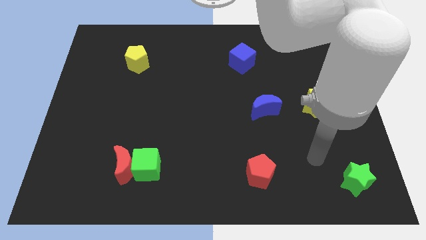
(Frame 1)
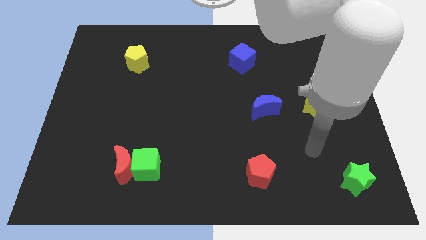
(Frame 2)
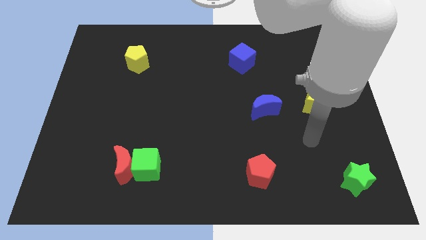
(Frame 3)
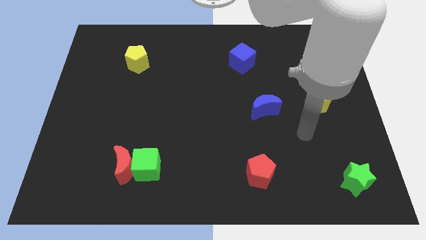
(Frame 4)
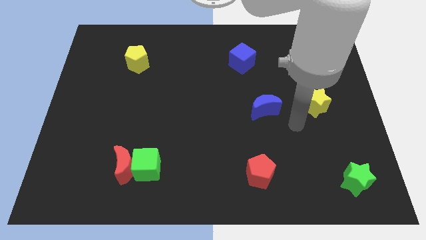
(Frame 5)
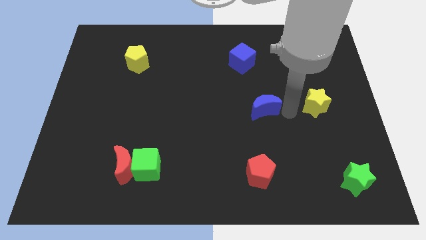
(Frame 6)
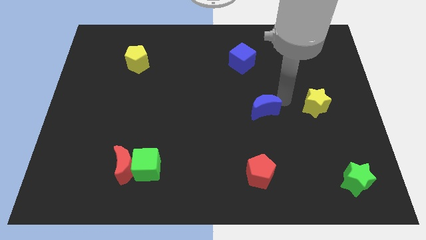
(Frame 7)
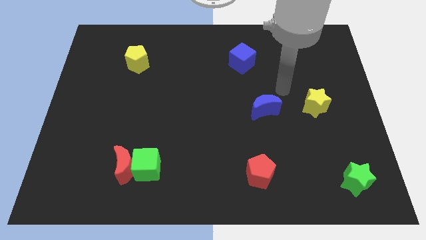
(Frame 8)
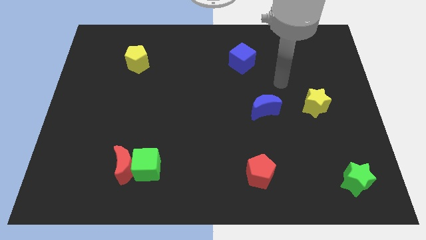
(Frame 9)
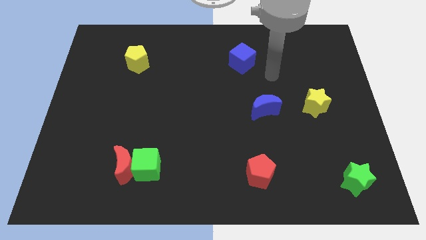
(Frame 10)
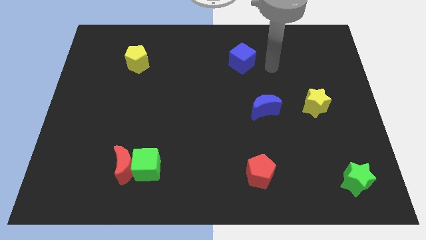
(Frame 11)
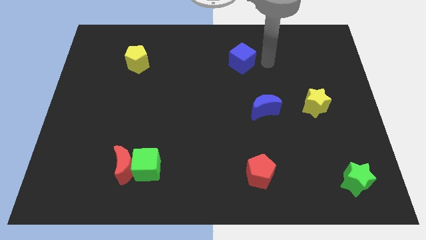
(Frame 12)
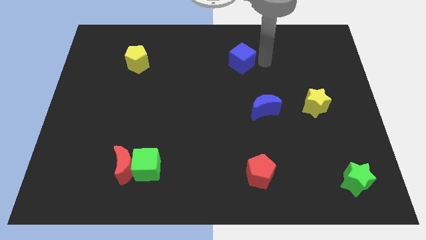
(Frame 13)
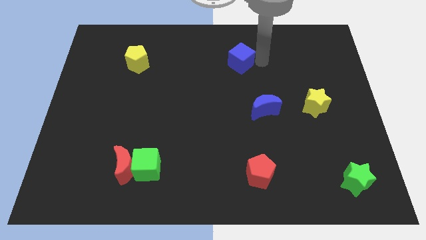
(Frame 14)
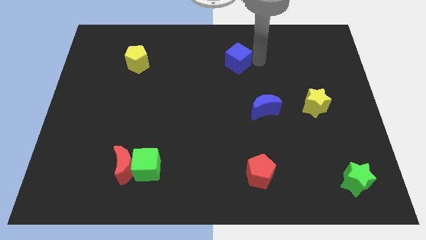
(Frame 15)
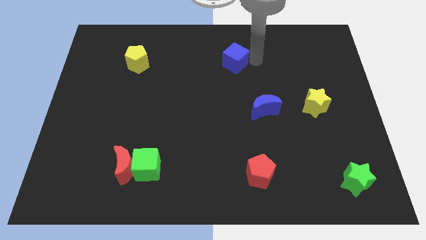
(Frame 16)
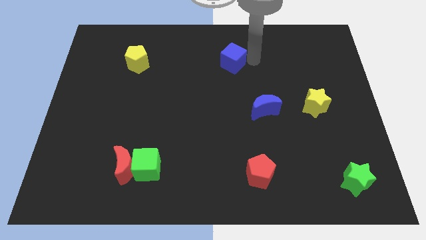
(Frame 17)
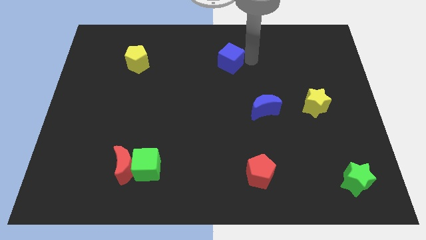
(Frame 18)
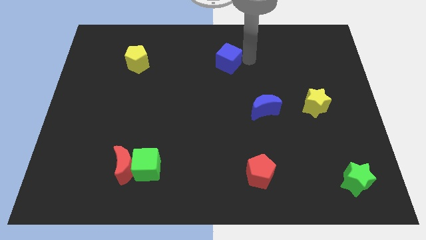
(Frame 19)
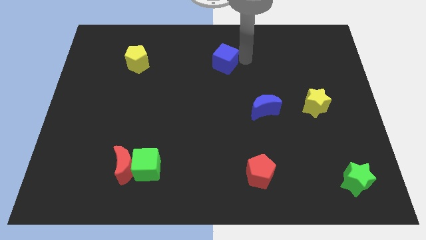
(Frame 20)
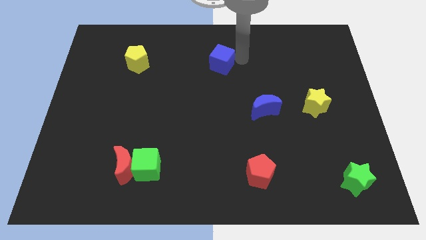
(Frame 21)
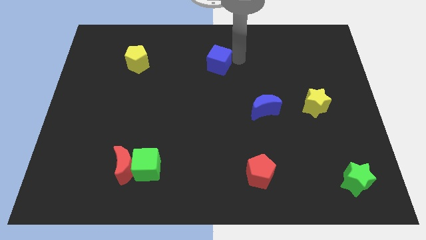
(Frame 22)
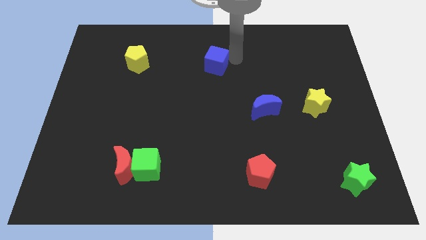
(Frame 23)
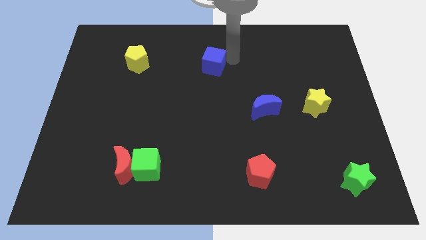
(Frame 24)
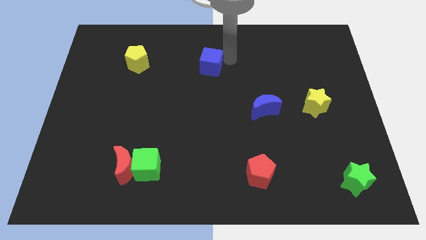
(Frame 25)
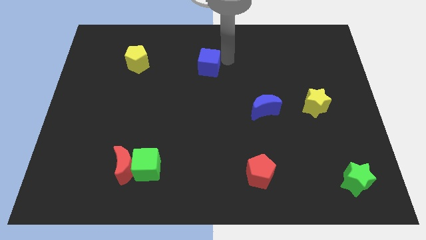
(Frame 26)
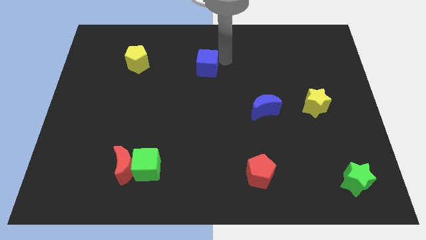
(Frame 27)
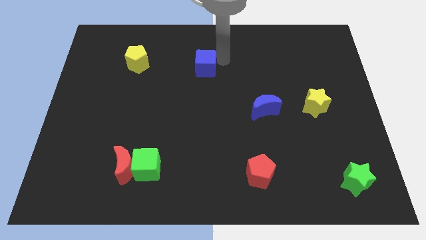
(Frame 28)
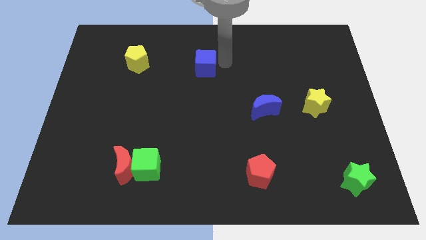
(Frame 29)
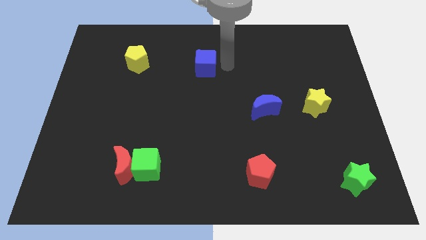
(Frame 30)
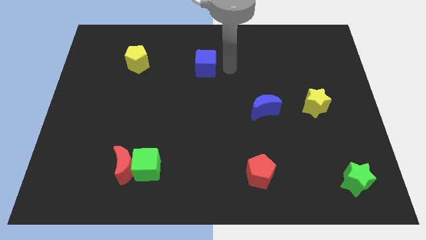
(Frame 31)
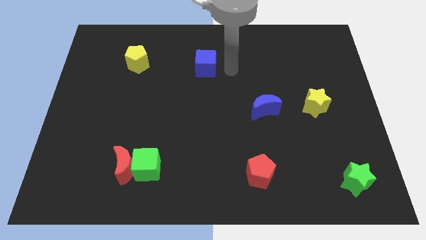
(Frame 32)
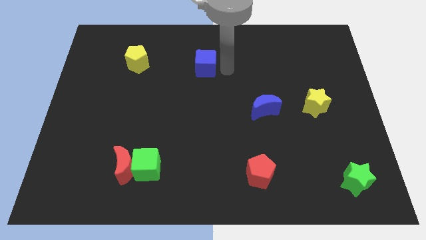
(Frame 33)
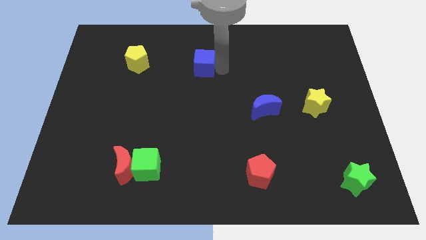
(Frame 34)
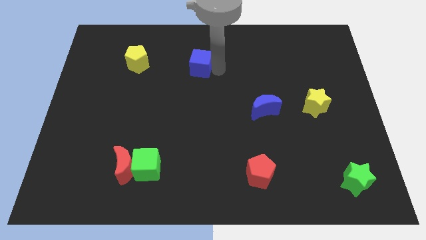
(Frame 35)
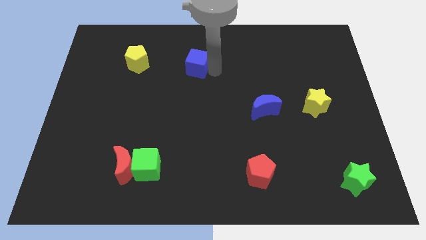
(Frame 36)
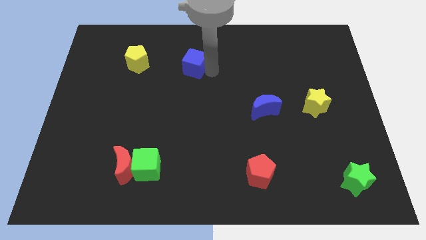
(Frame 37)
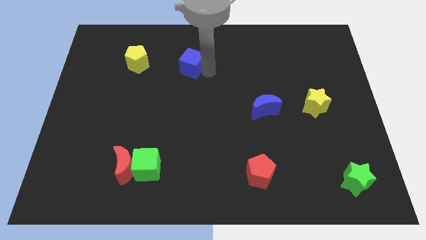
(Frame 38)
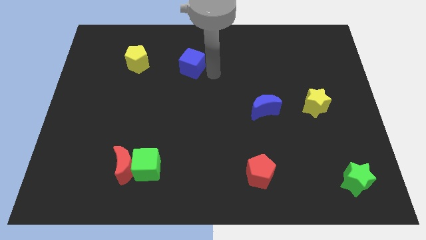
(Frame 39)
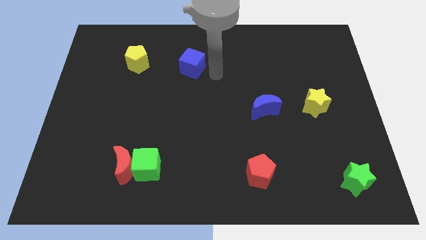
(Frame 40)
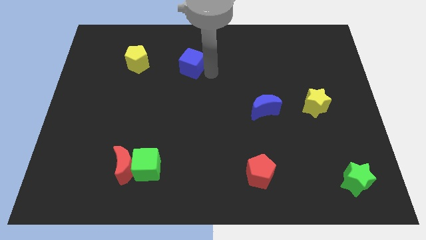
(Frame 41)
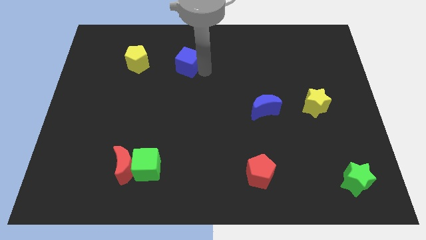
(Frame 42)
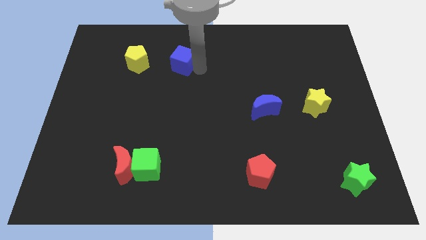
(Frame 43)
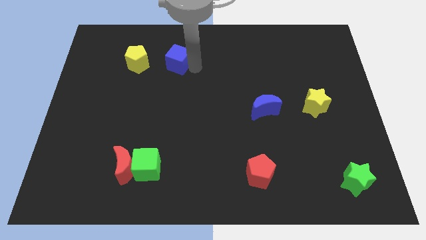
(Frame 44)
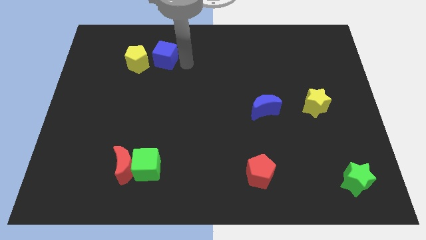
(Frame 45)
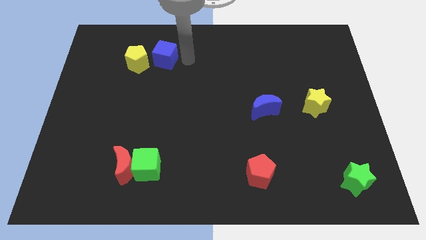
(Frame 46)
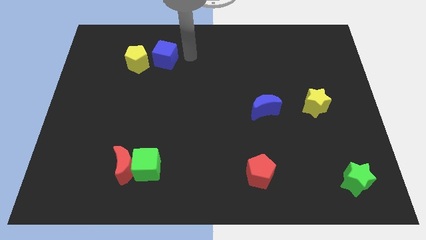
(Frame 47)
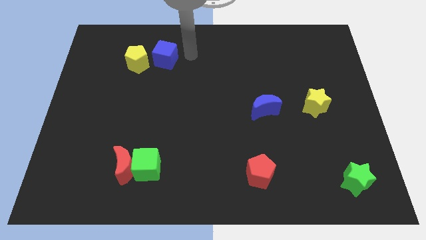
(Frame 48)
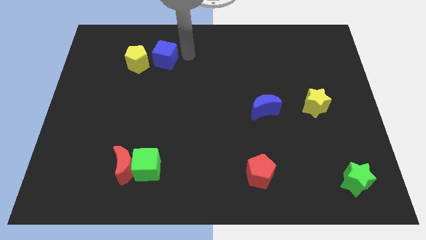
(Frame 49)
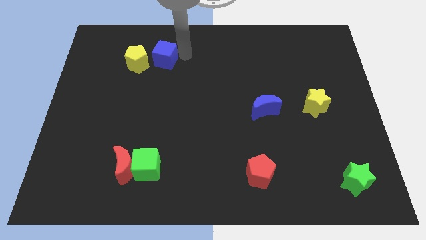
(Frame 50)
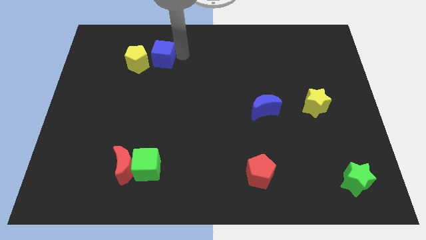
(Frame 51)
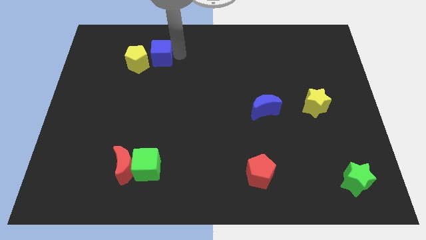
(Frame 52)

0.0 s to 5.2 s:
put the blue cube towards the yellow pentagon

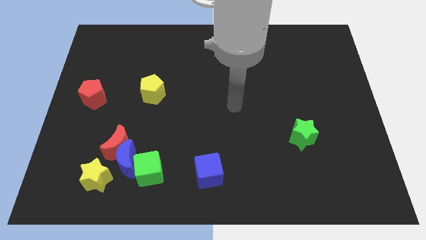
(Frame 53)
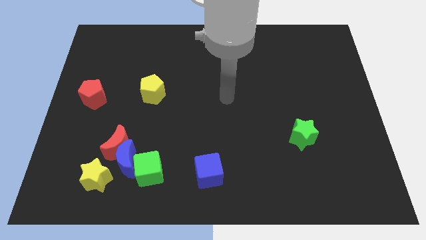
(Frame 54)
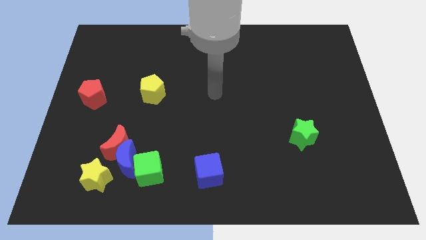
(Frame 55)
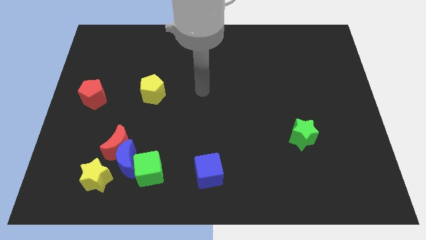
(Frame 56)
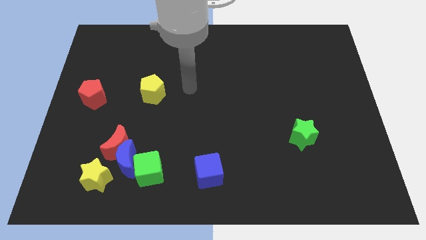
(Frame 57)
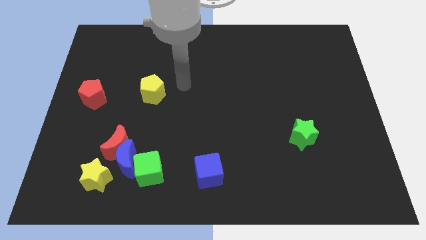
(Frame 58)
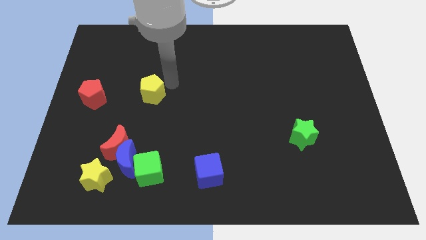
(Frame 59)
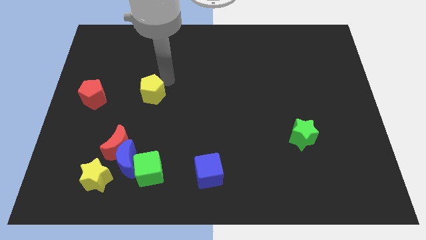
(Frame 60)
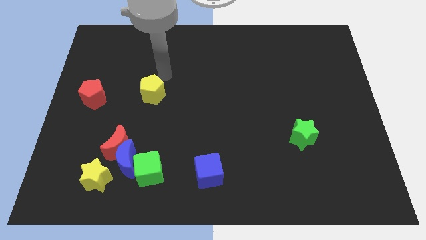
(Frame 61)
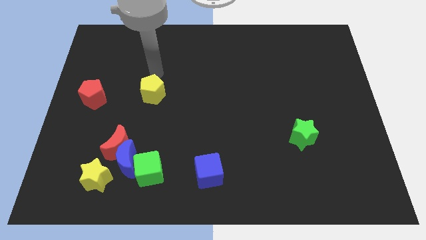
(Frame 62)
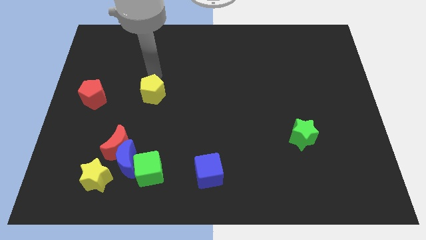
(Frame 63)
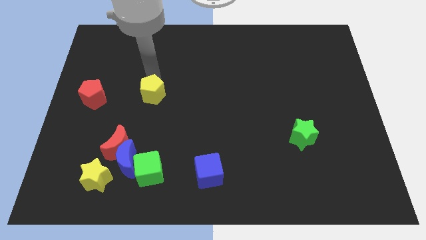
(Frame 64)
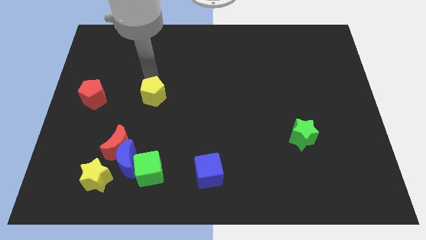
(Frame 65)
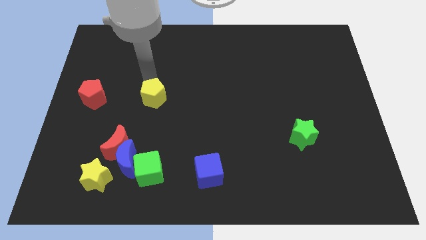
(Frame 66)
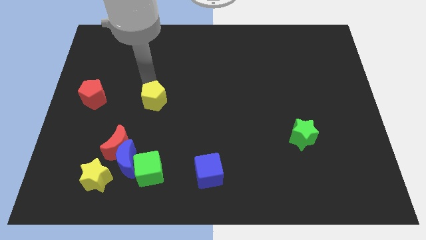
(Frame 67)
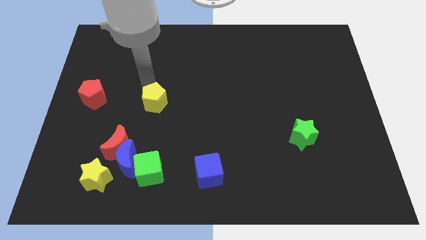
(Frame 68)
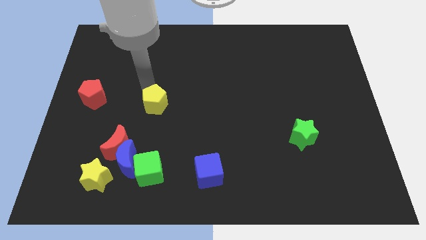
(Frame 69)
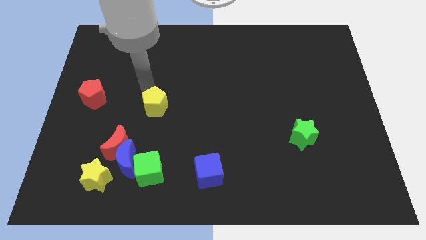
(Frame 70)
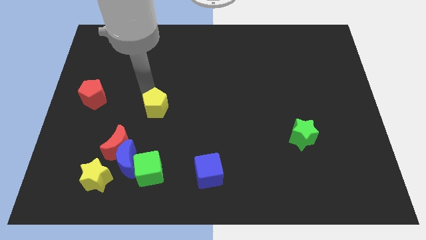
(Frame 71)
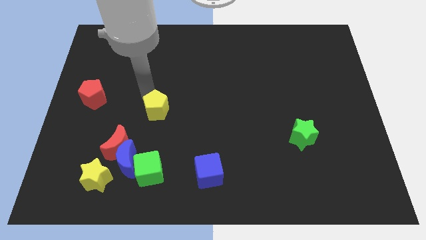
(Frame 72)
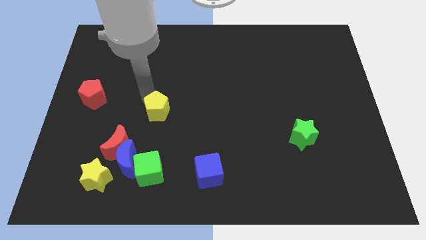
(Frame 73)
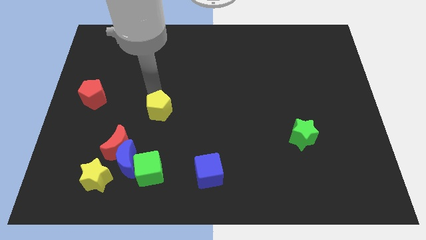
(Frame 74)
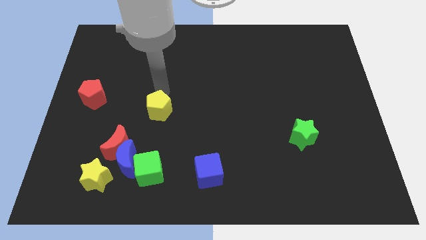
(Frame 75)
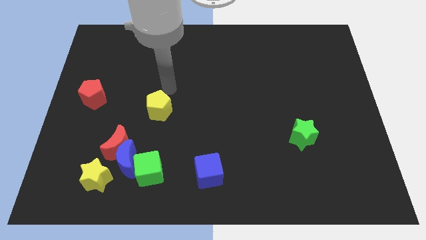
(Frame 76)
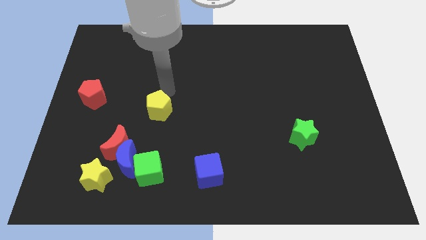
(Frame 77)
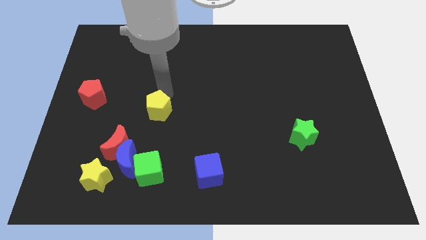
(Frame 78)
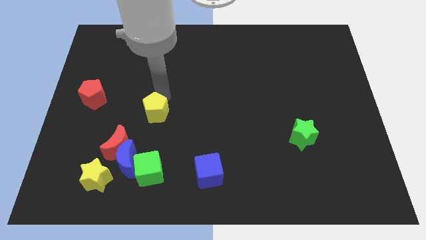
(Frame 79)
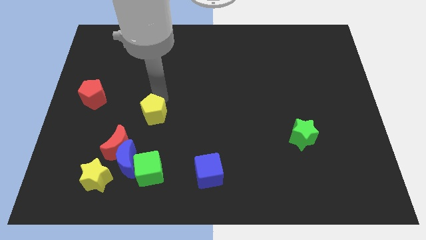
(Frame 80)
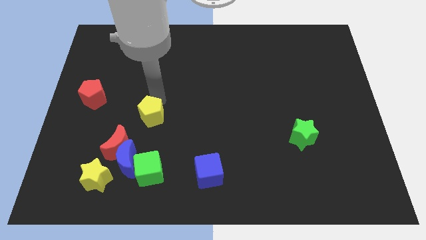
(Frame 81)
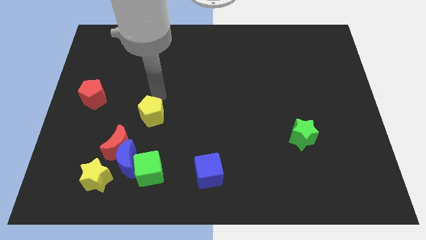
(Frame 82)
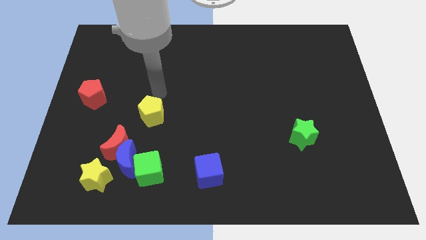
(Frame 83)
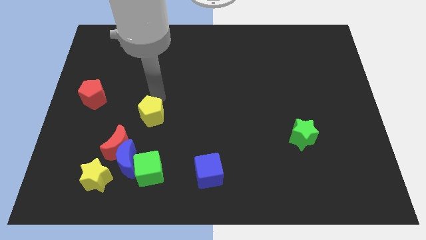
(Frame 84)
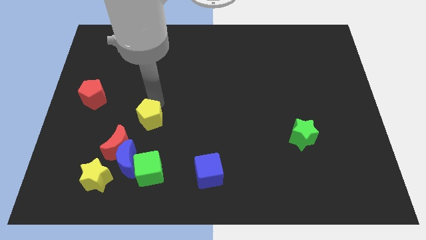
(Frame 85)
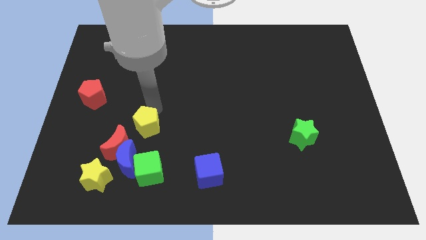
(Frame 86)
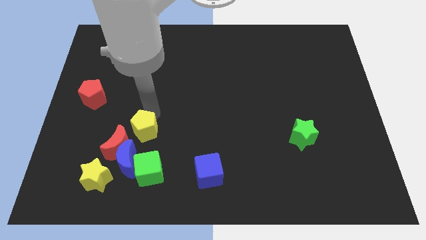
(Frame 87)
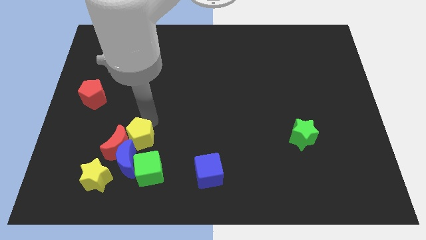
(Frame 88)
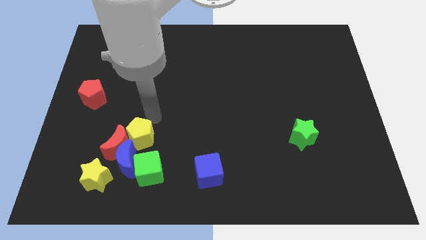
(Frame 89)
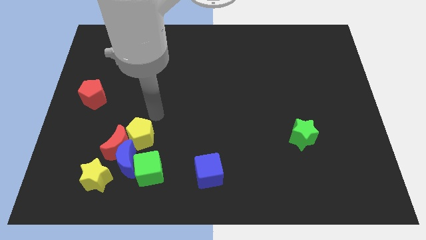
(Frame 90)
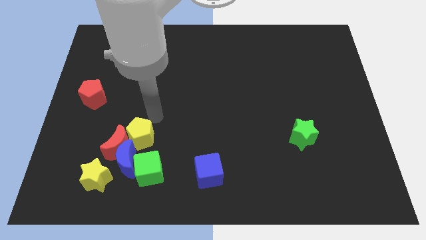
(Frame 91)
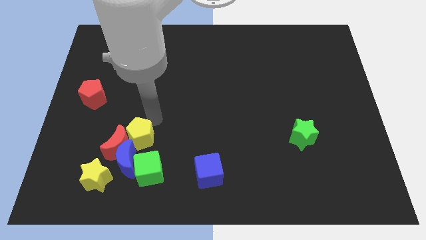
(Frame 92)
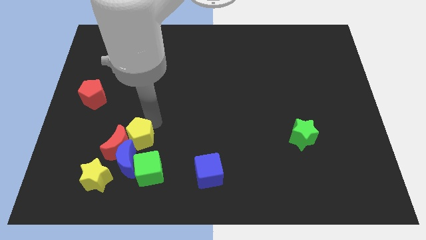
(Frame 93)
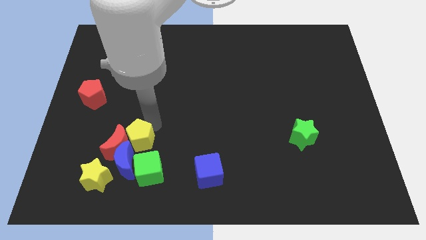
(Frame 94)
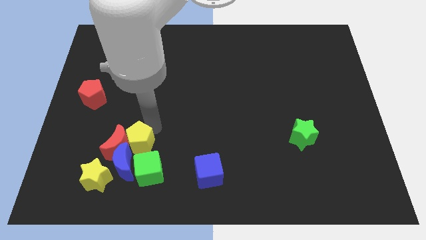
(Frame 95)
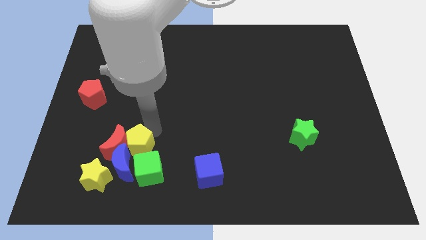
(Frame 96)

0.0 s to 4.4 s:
move the yellow pentagon close to the blue moon
